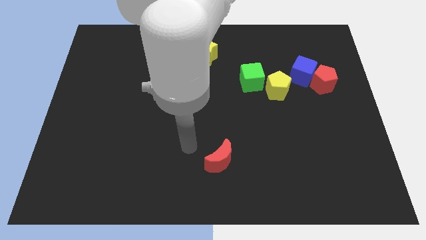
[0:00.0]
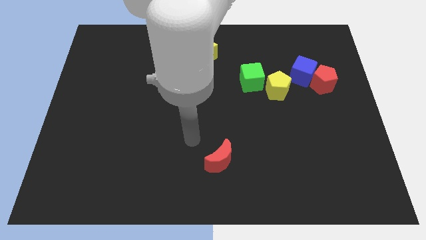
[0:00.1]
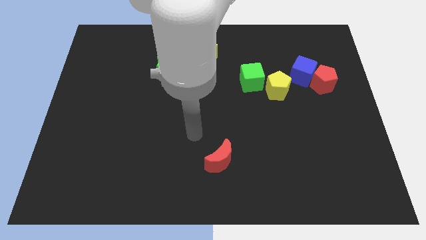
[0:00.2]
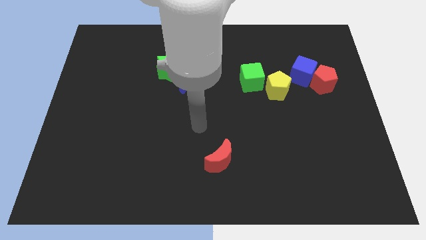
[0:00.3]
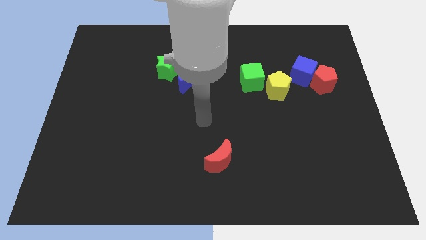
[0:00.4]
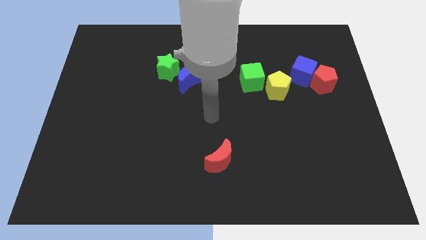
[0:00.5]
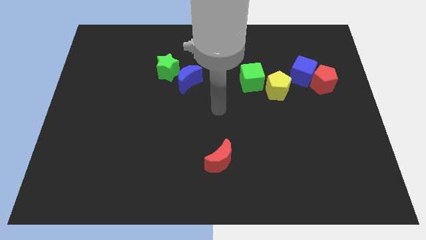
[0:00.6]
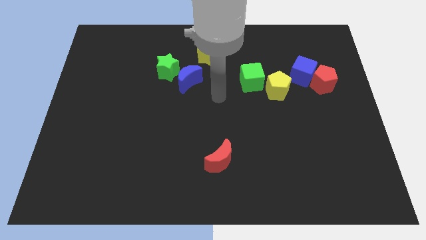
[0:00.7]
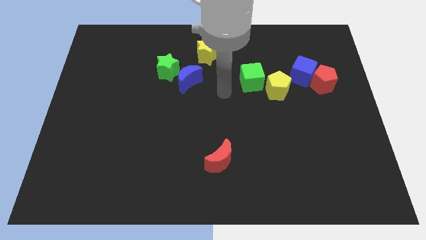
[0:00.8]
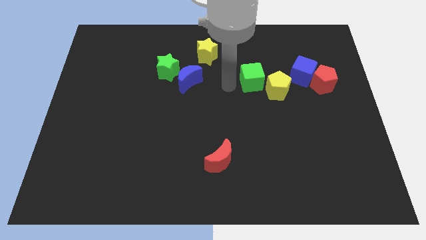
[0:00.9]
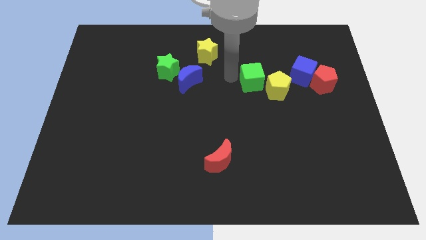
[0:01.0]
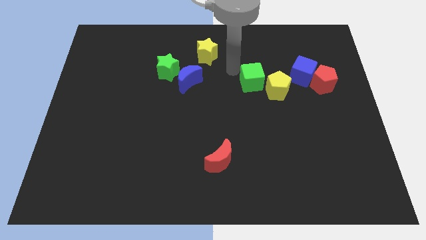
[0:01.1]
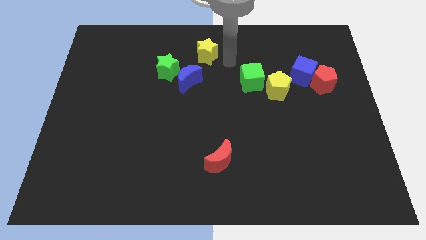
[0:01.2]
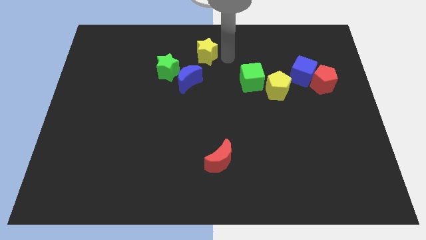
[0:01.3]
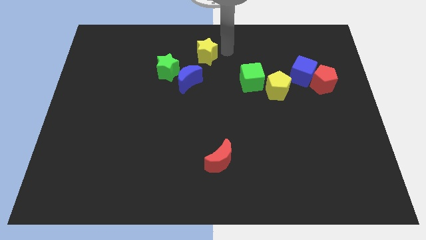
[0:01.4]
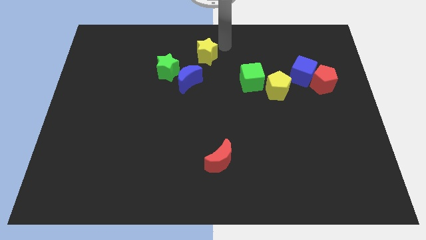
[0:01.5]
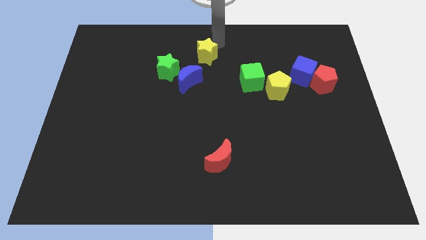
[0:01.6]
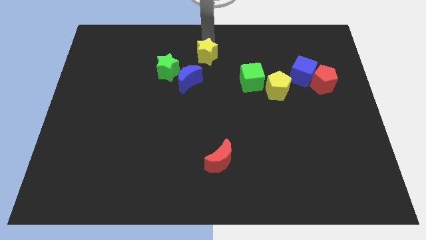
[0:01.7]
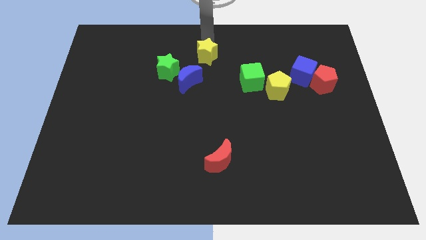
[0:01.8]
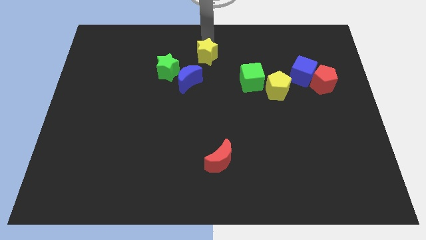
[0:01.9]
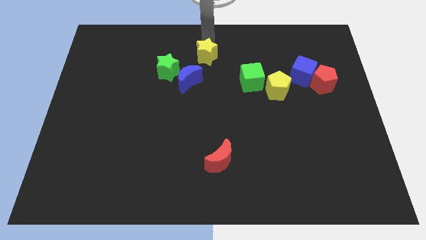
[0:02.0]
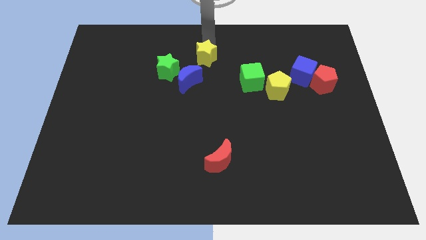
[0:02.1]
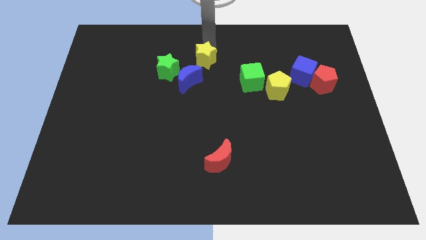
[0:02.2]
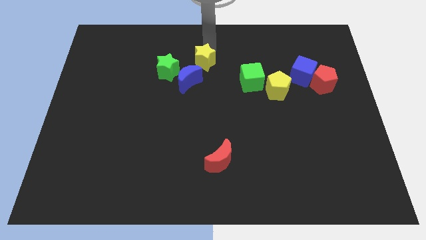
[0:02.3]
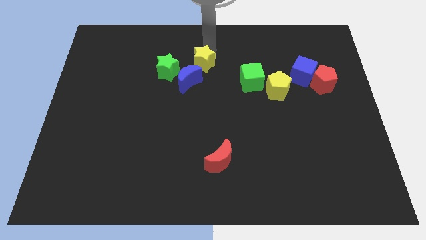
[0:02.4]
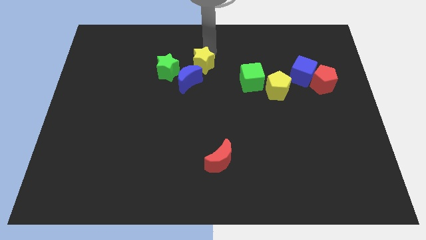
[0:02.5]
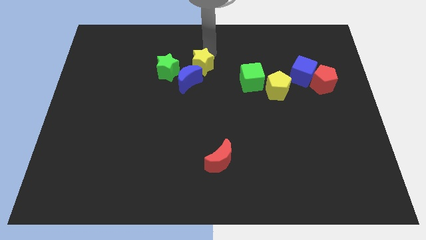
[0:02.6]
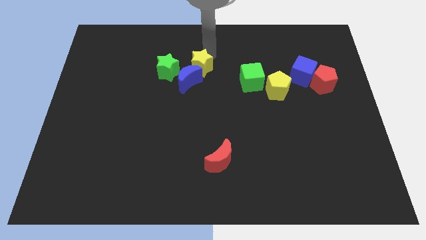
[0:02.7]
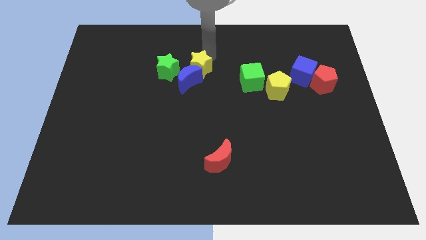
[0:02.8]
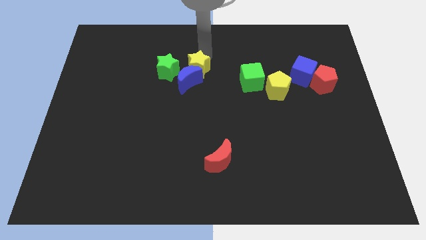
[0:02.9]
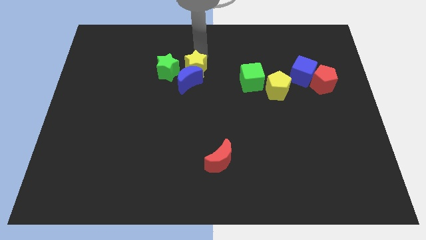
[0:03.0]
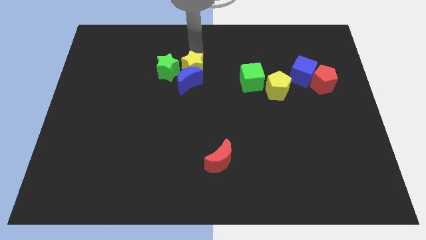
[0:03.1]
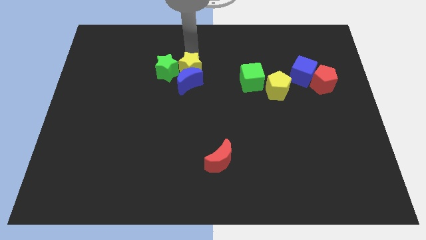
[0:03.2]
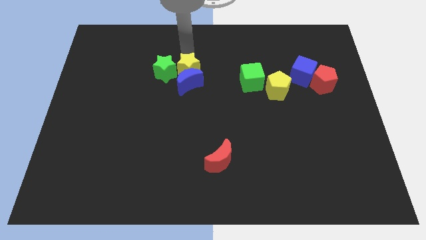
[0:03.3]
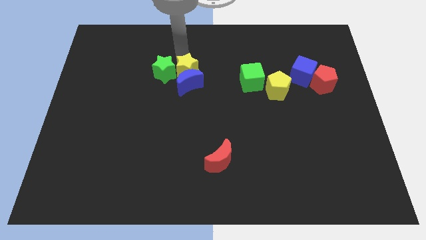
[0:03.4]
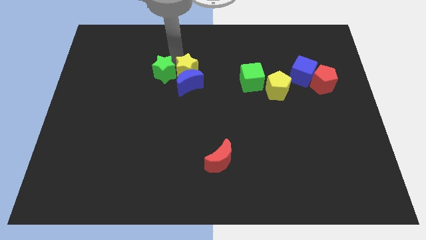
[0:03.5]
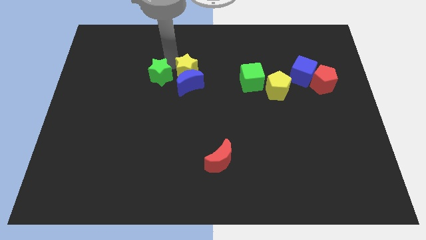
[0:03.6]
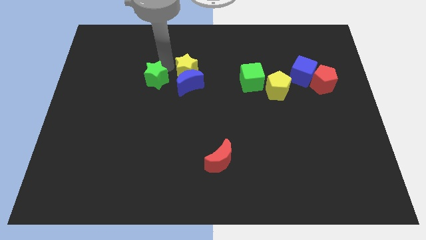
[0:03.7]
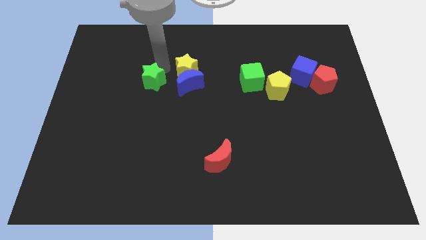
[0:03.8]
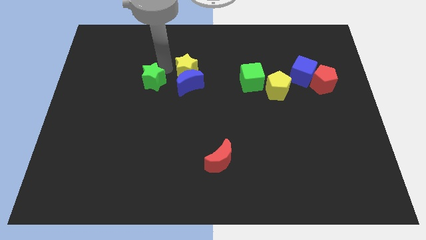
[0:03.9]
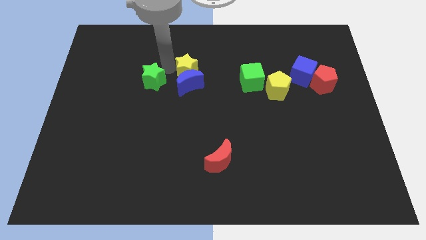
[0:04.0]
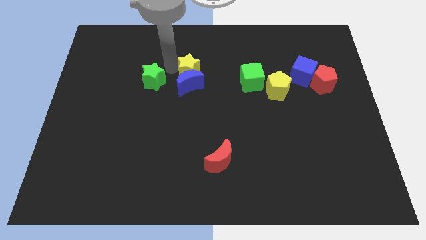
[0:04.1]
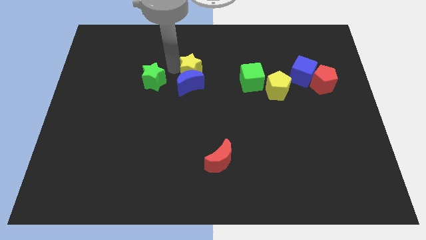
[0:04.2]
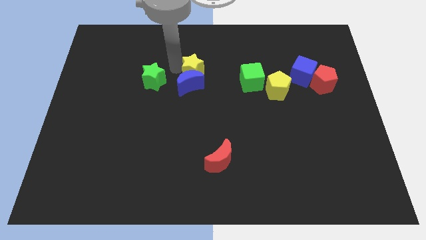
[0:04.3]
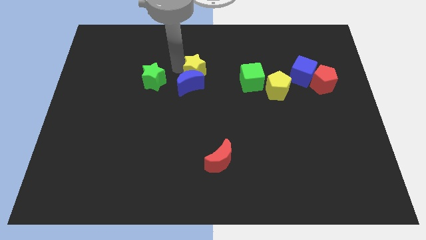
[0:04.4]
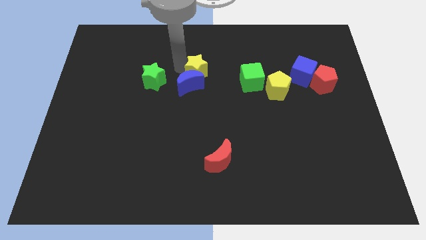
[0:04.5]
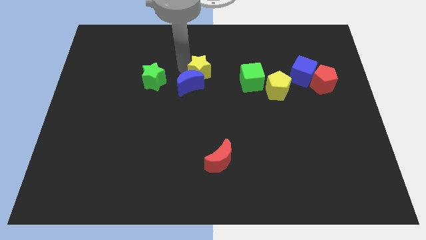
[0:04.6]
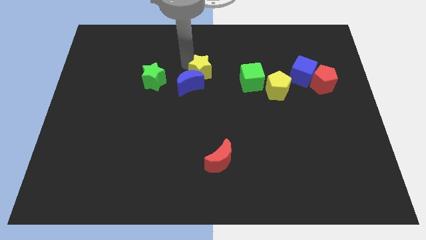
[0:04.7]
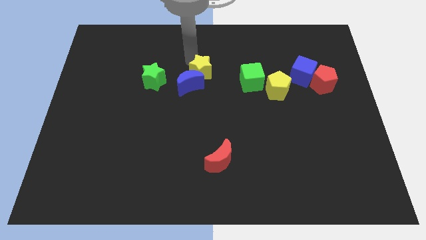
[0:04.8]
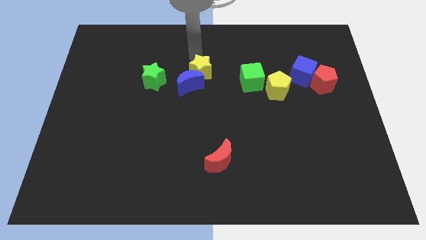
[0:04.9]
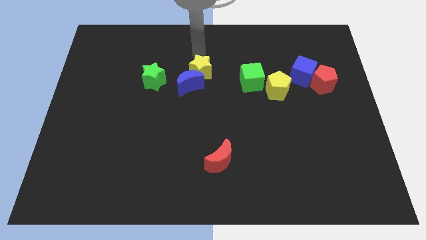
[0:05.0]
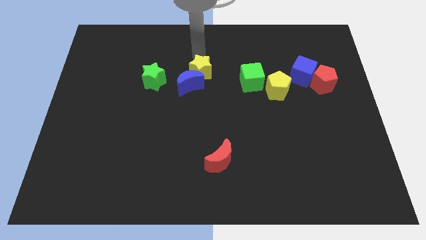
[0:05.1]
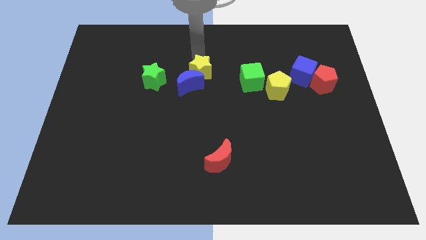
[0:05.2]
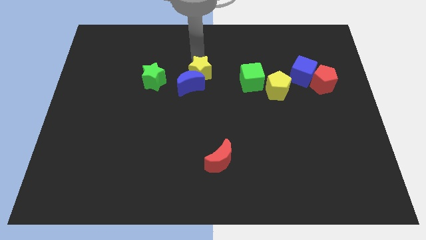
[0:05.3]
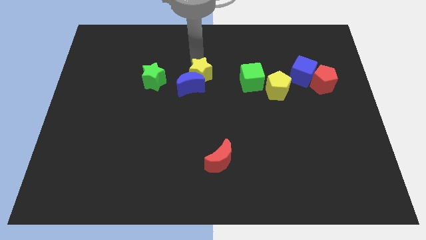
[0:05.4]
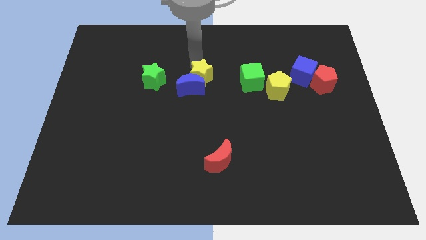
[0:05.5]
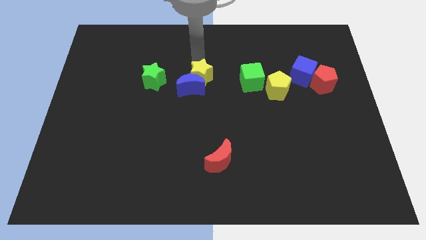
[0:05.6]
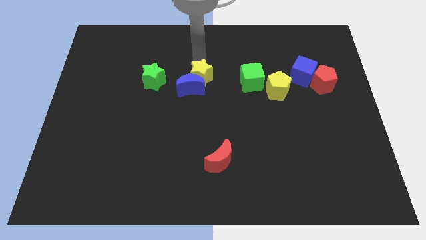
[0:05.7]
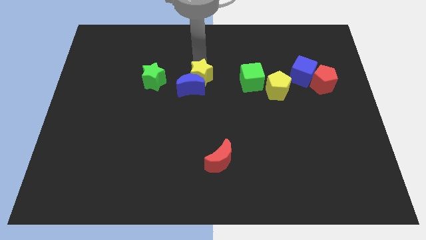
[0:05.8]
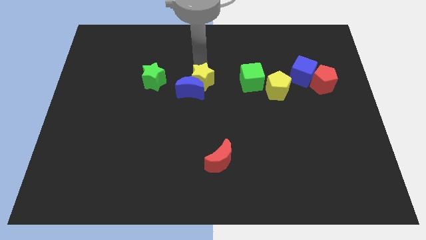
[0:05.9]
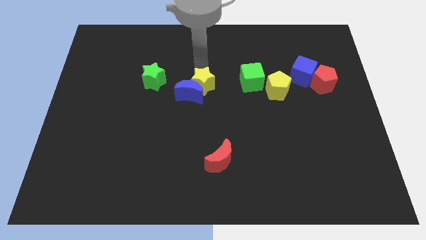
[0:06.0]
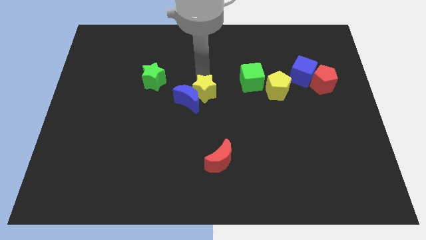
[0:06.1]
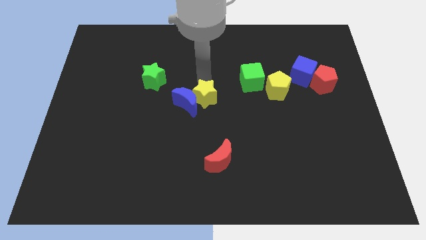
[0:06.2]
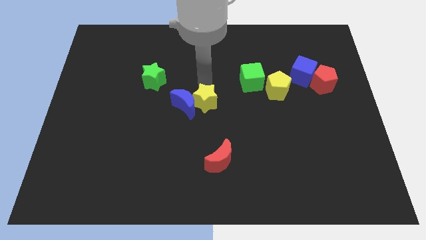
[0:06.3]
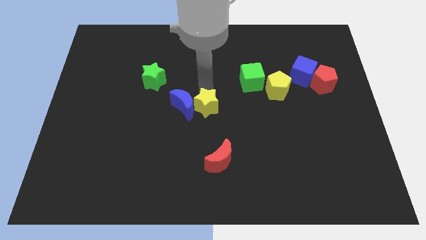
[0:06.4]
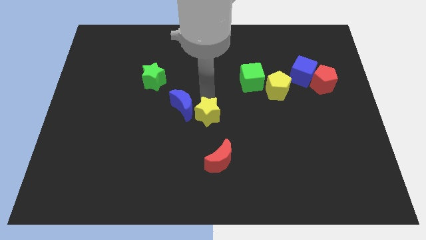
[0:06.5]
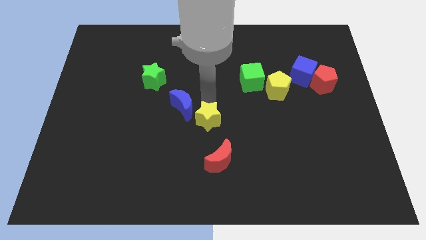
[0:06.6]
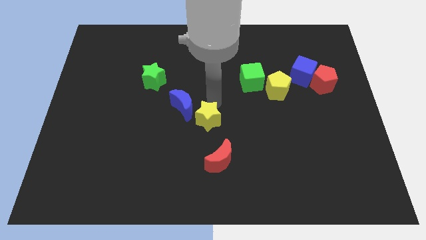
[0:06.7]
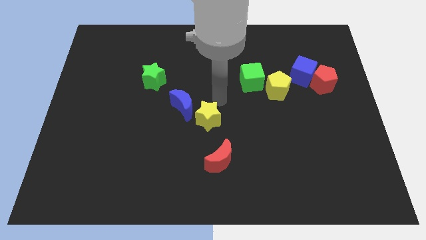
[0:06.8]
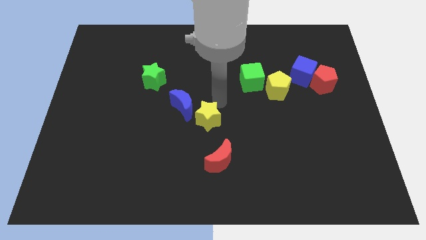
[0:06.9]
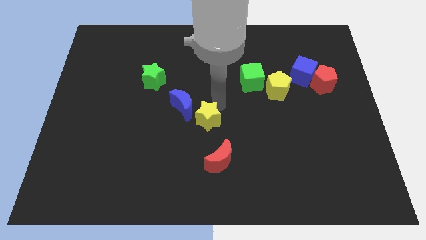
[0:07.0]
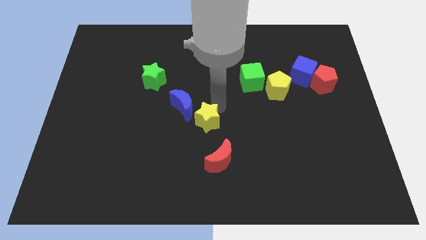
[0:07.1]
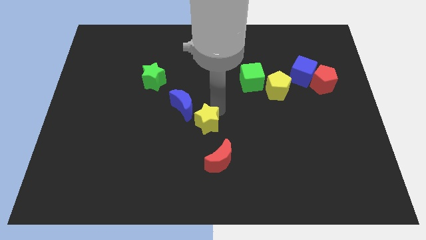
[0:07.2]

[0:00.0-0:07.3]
push the yellow star to the top left side of the red moon

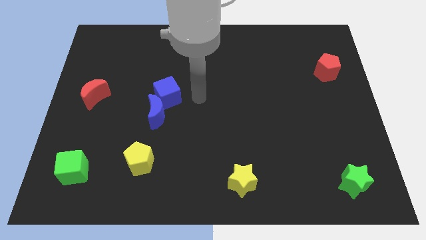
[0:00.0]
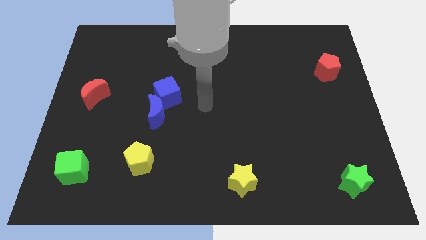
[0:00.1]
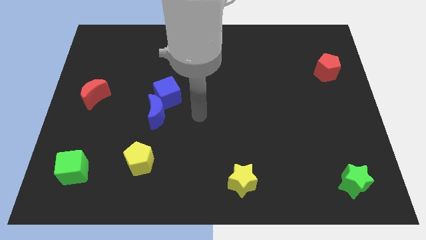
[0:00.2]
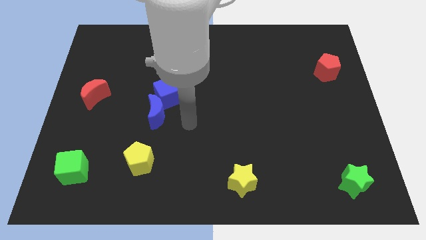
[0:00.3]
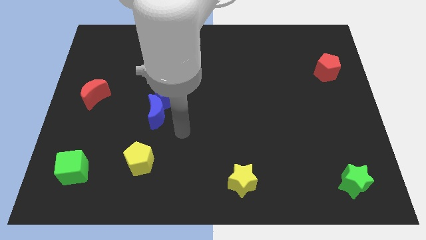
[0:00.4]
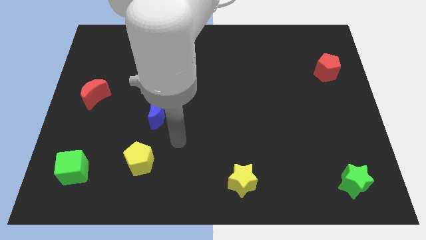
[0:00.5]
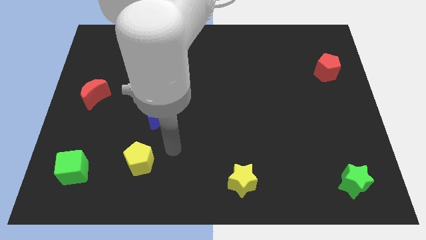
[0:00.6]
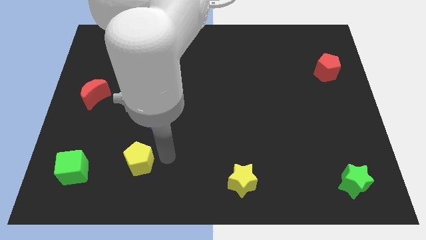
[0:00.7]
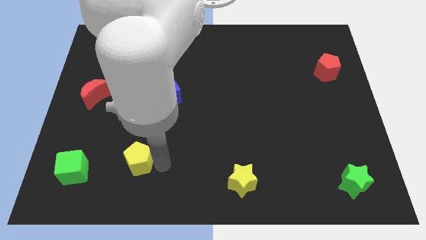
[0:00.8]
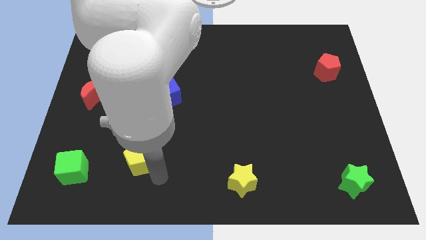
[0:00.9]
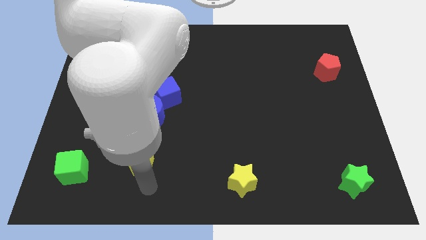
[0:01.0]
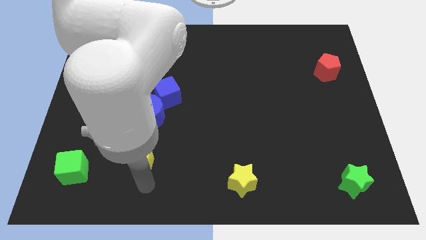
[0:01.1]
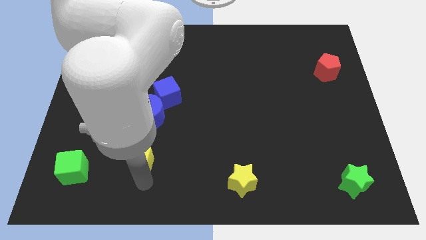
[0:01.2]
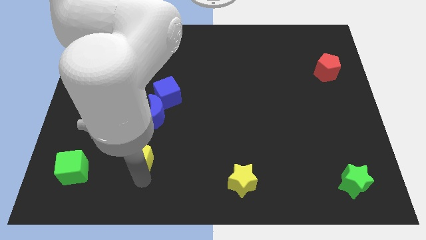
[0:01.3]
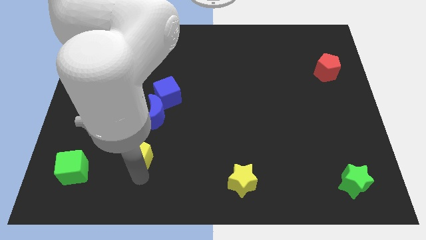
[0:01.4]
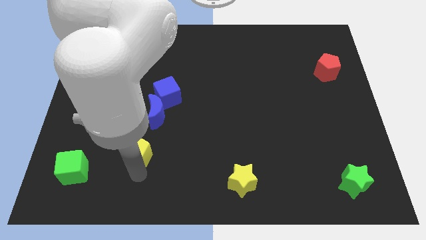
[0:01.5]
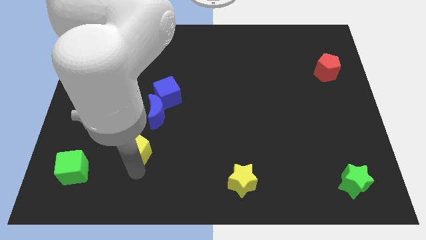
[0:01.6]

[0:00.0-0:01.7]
put the yellow pentagon to the bottom left of the blue moon
